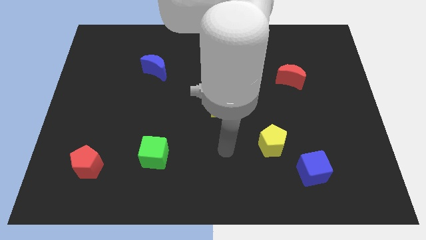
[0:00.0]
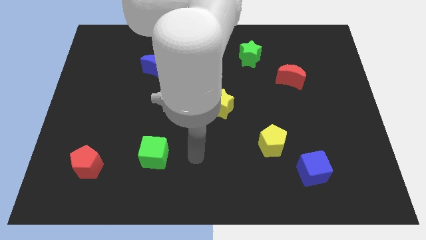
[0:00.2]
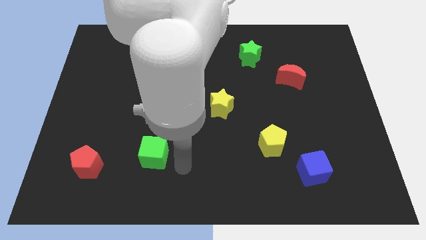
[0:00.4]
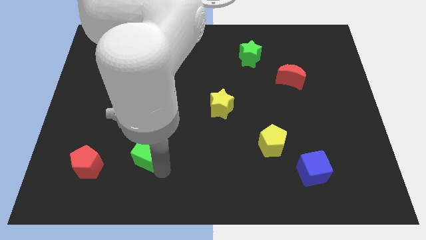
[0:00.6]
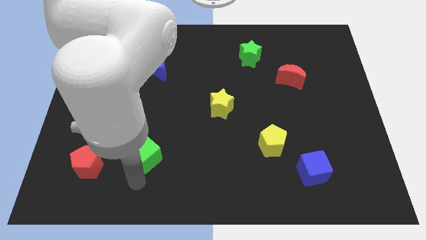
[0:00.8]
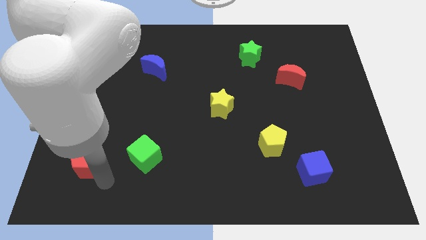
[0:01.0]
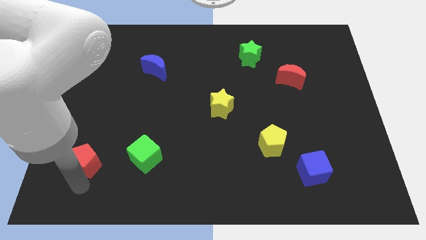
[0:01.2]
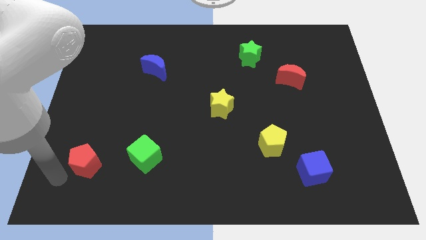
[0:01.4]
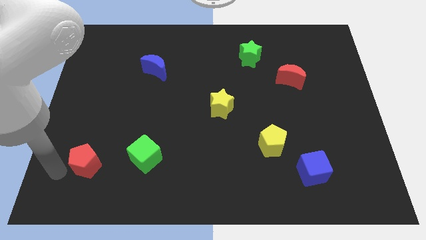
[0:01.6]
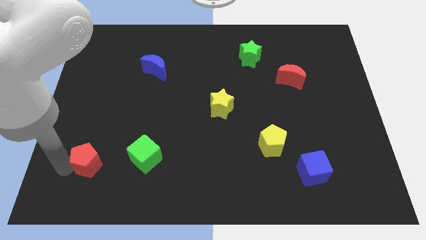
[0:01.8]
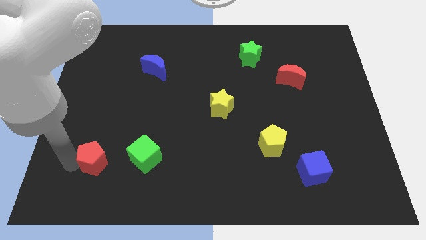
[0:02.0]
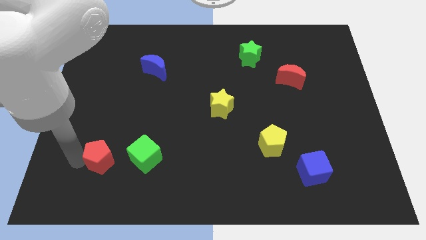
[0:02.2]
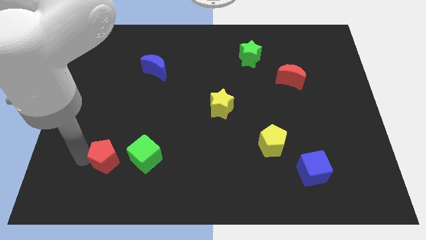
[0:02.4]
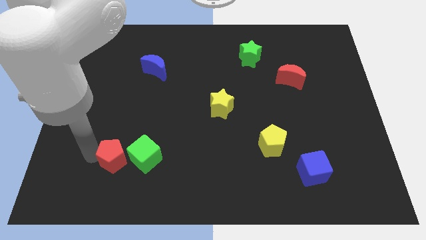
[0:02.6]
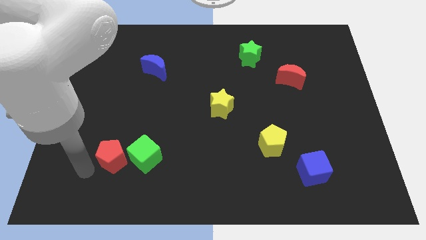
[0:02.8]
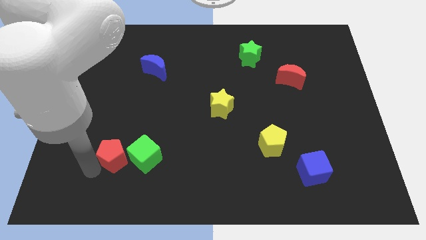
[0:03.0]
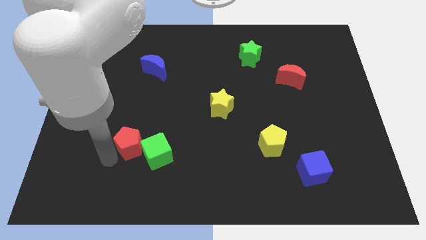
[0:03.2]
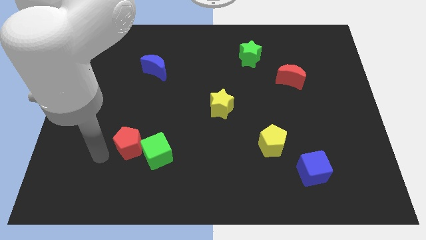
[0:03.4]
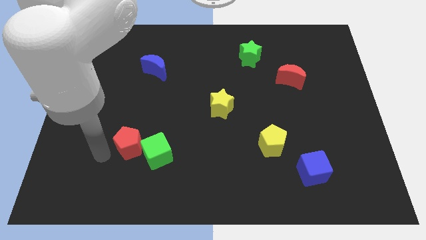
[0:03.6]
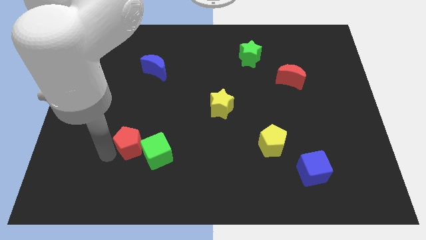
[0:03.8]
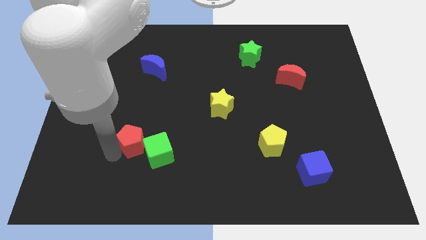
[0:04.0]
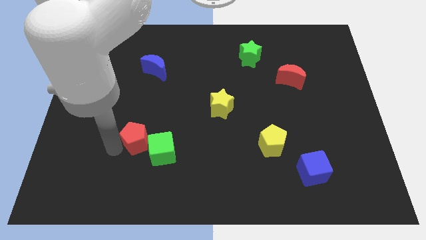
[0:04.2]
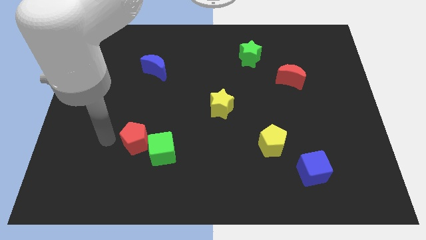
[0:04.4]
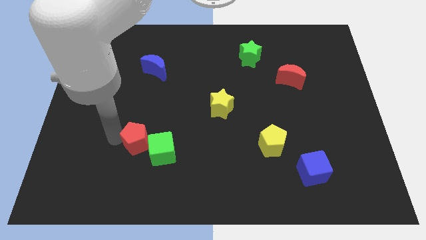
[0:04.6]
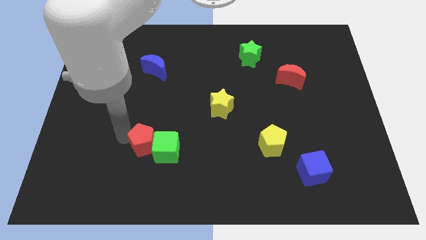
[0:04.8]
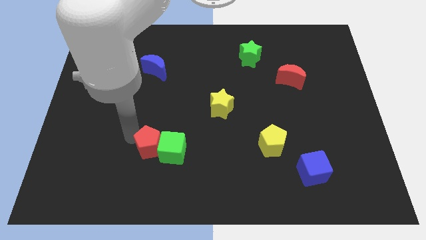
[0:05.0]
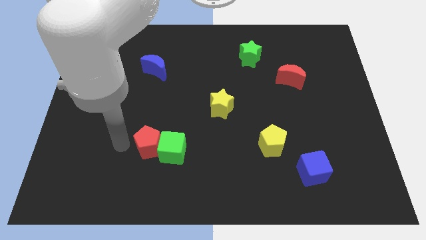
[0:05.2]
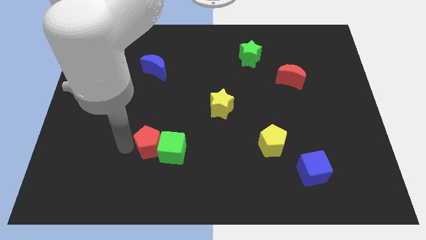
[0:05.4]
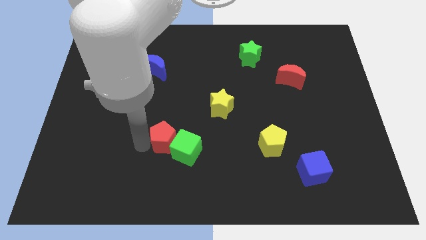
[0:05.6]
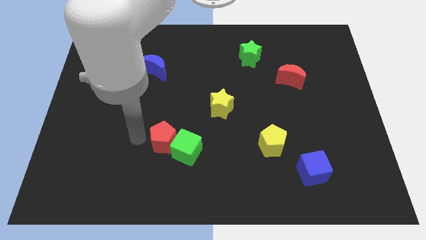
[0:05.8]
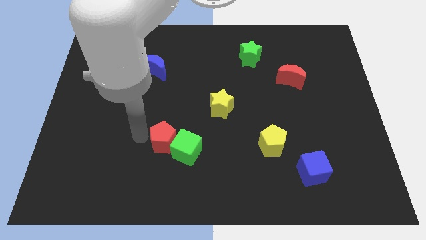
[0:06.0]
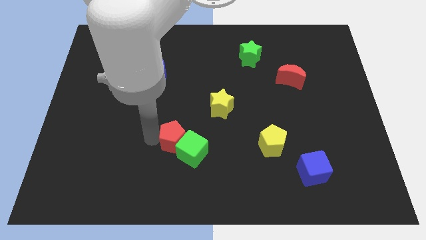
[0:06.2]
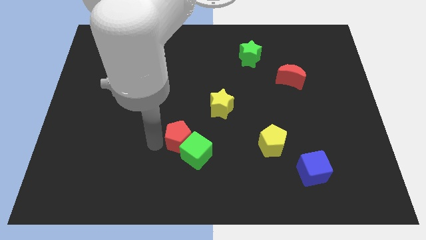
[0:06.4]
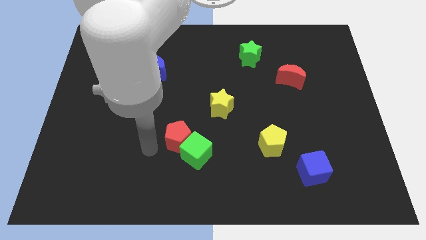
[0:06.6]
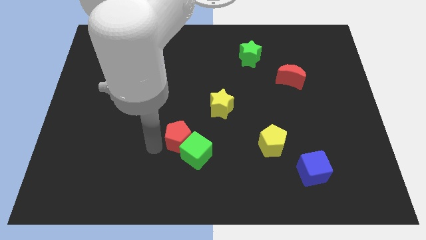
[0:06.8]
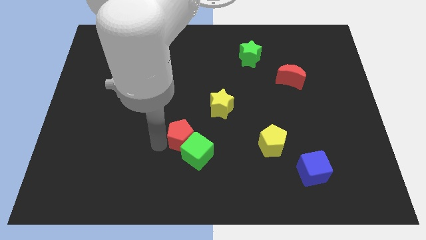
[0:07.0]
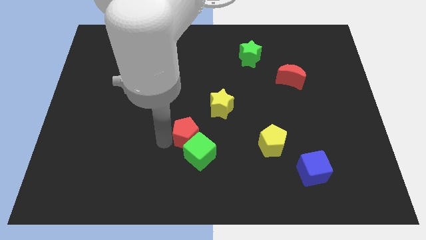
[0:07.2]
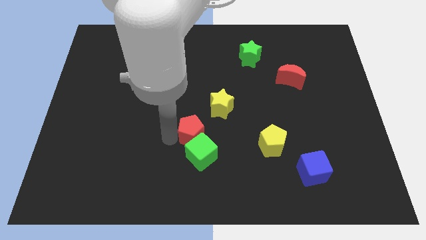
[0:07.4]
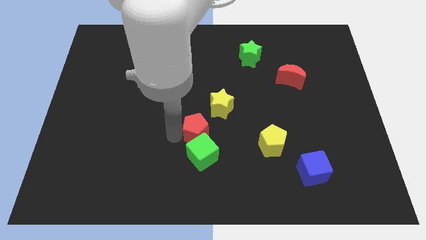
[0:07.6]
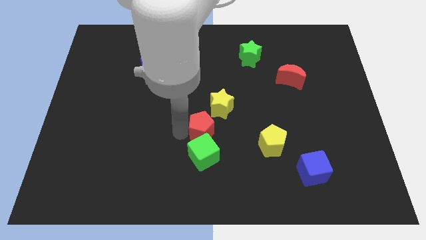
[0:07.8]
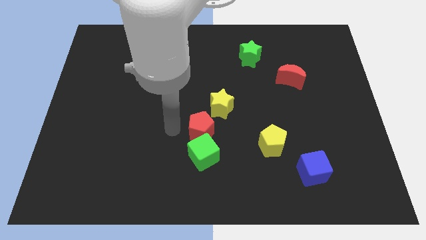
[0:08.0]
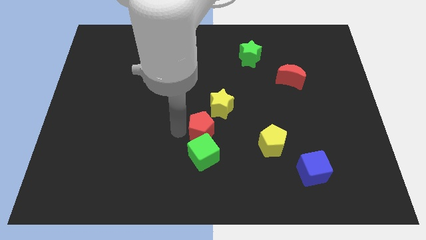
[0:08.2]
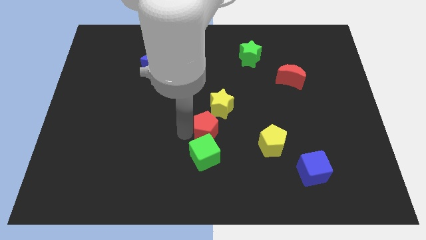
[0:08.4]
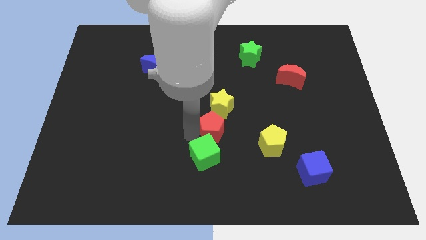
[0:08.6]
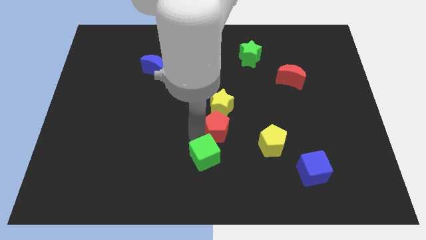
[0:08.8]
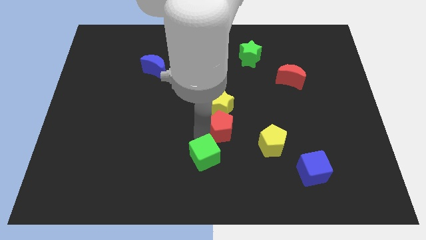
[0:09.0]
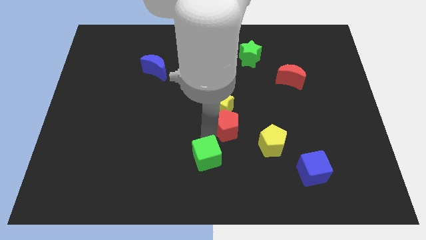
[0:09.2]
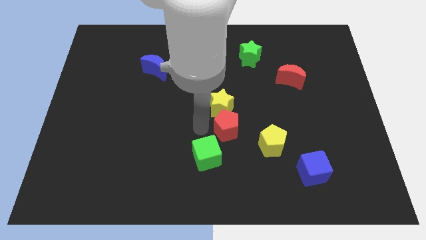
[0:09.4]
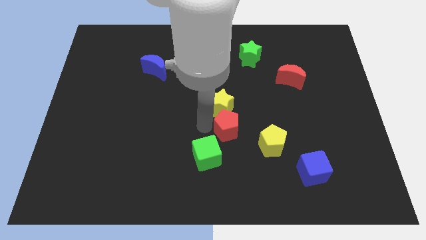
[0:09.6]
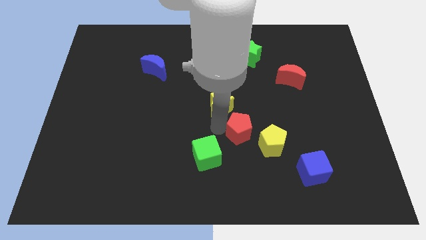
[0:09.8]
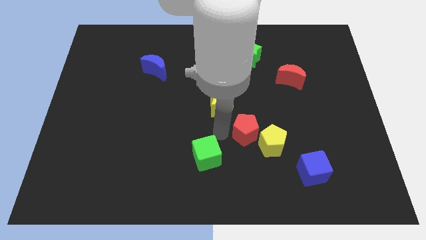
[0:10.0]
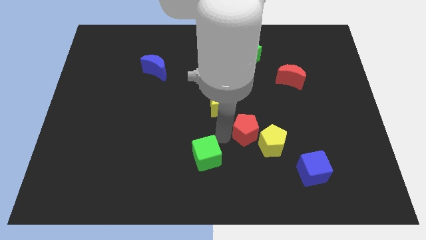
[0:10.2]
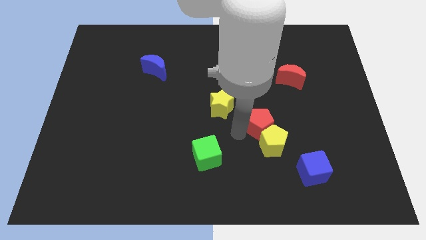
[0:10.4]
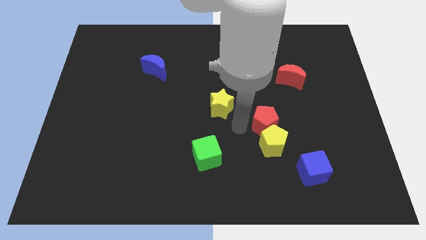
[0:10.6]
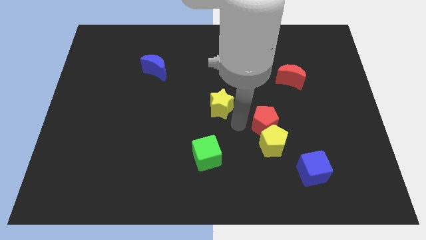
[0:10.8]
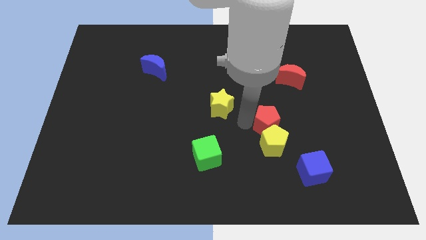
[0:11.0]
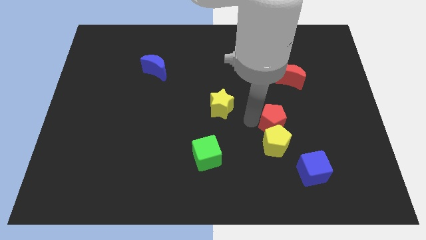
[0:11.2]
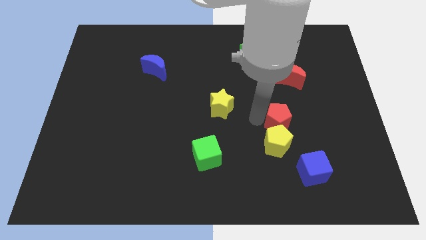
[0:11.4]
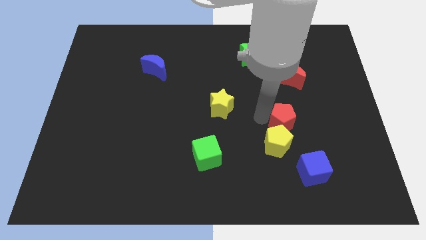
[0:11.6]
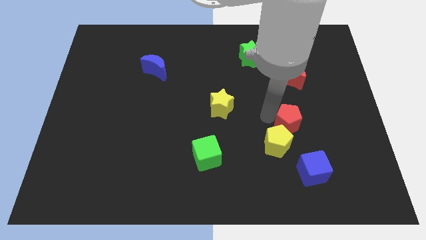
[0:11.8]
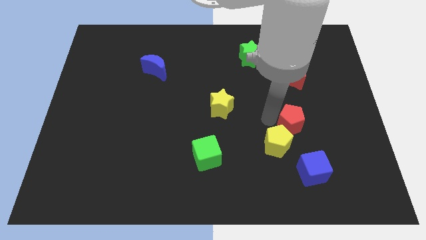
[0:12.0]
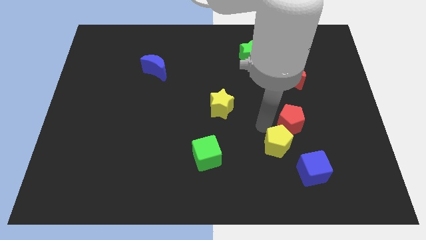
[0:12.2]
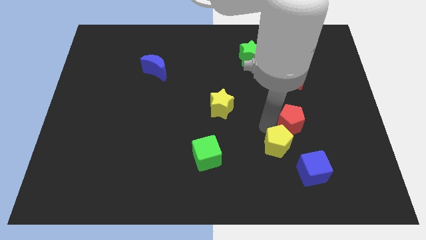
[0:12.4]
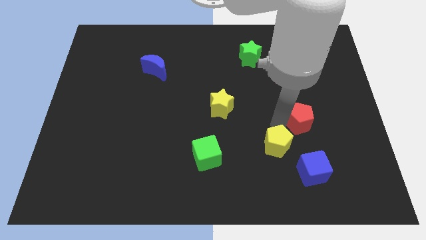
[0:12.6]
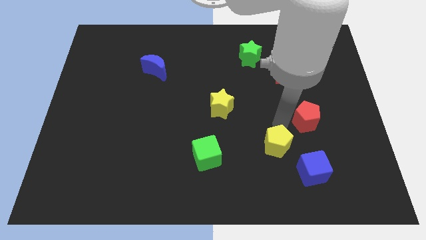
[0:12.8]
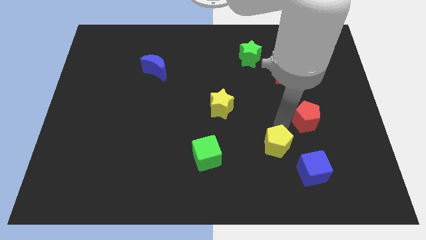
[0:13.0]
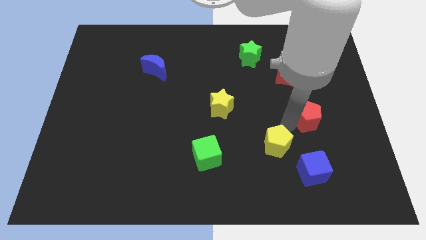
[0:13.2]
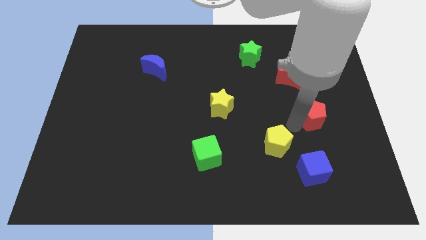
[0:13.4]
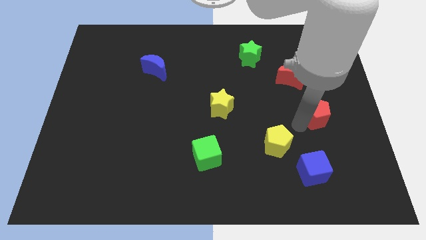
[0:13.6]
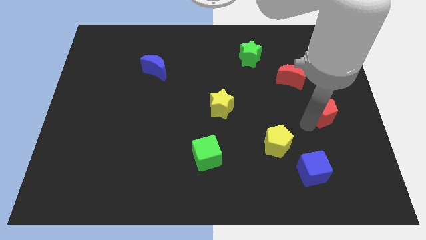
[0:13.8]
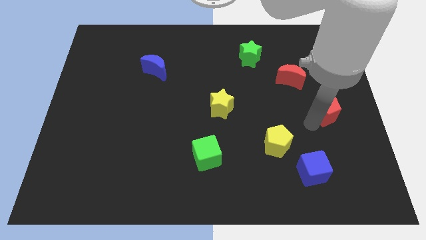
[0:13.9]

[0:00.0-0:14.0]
push the red pentagon to the right side
